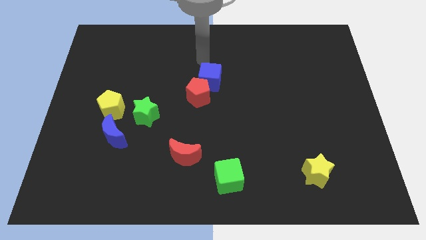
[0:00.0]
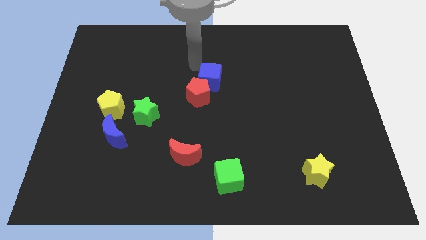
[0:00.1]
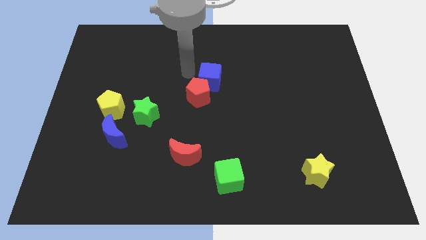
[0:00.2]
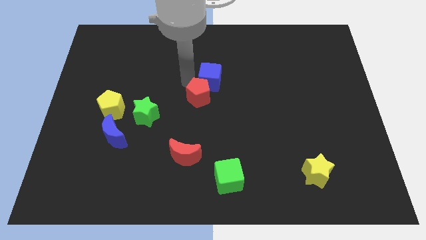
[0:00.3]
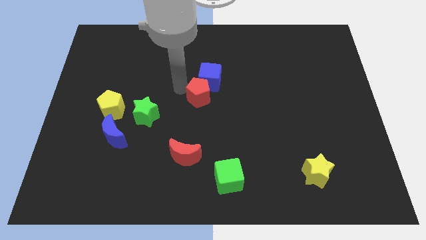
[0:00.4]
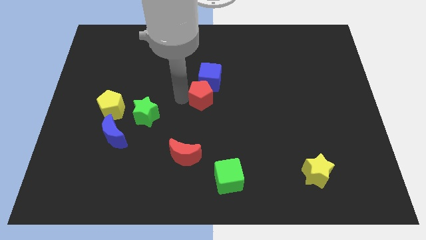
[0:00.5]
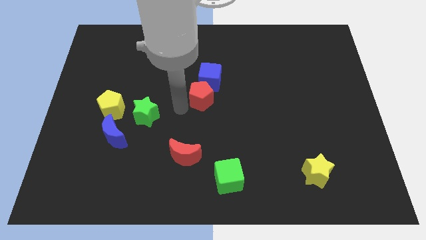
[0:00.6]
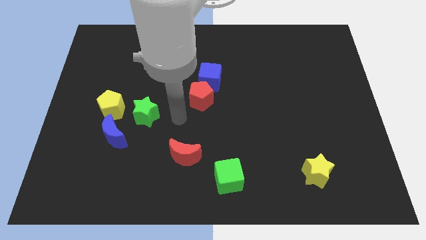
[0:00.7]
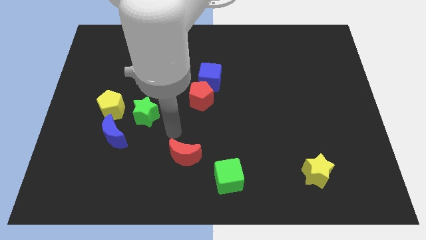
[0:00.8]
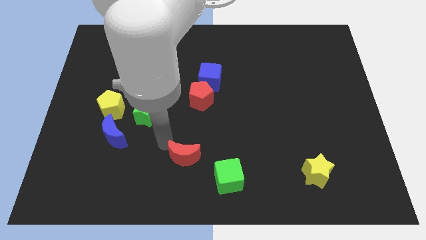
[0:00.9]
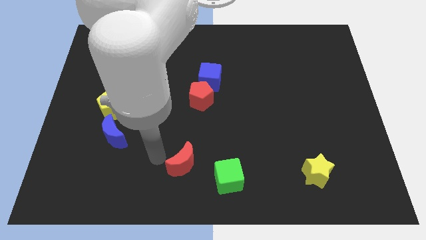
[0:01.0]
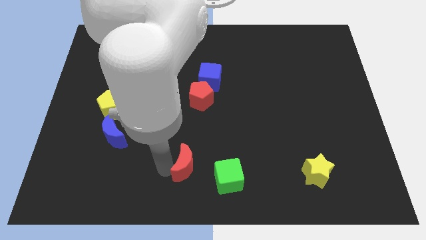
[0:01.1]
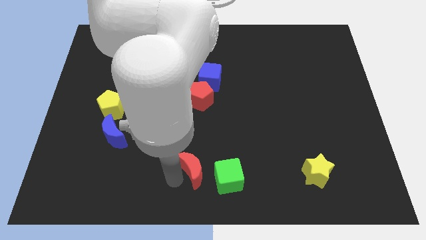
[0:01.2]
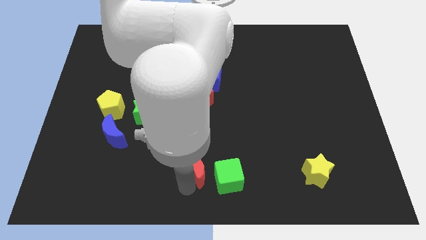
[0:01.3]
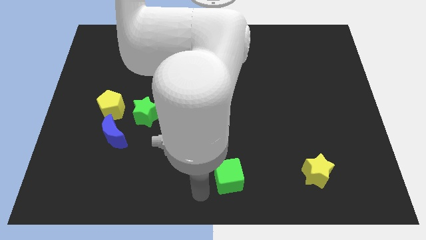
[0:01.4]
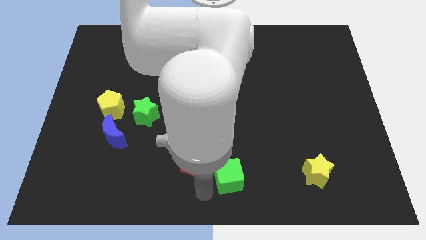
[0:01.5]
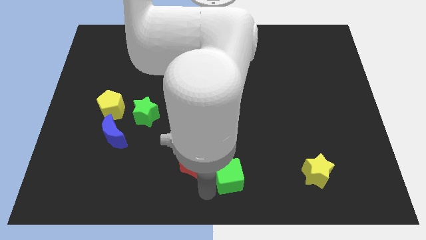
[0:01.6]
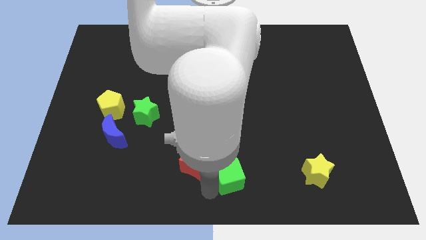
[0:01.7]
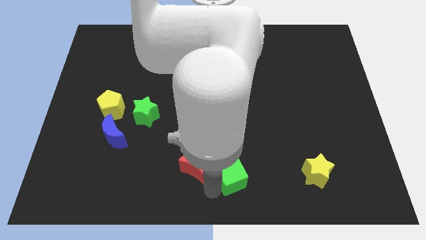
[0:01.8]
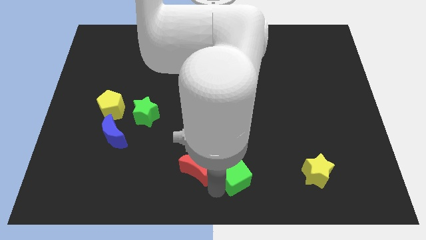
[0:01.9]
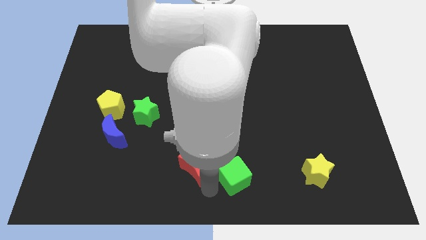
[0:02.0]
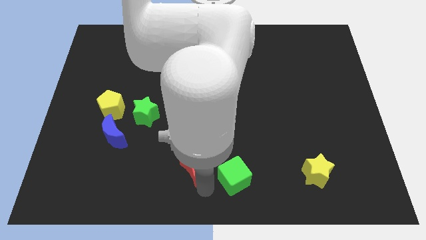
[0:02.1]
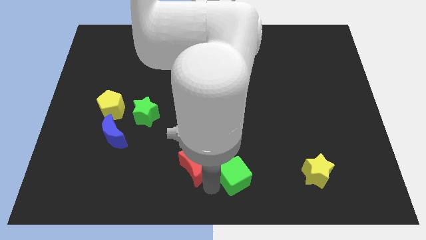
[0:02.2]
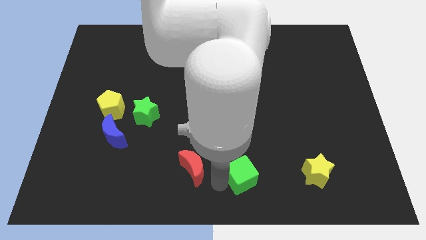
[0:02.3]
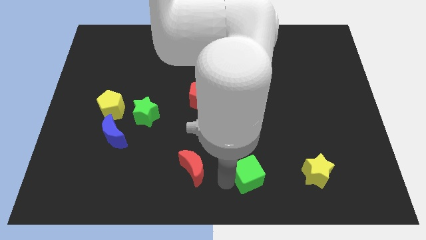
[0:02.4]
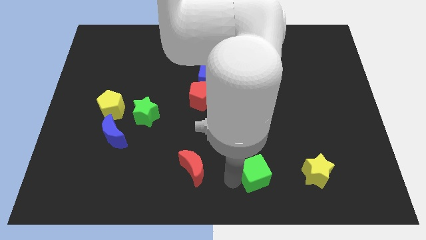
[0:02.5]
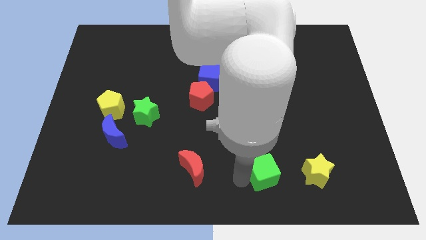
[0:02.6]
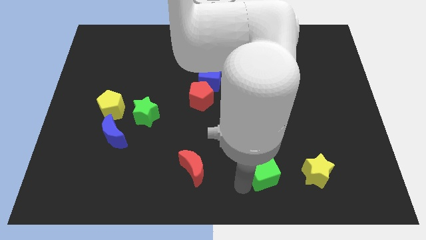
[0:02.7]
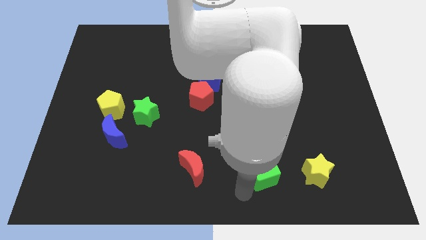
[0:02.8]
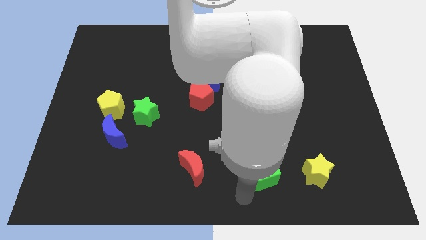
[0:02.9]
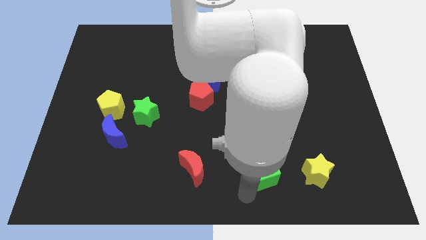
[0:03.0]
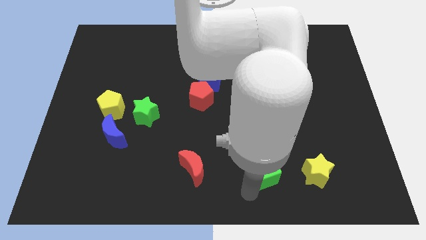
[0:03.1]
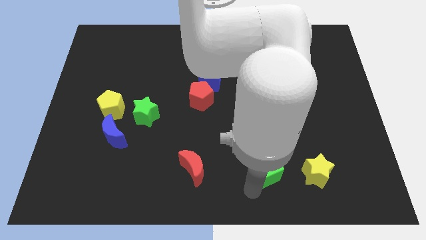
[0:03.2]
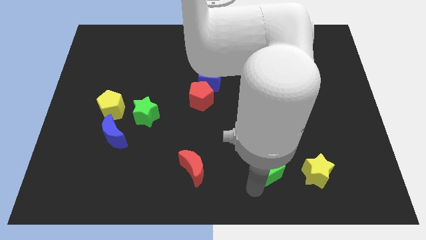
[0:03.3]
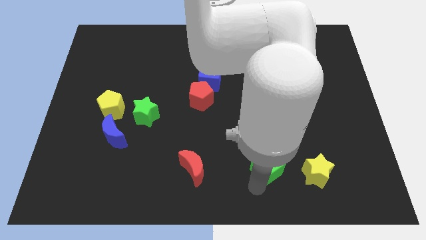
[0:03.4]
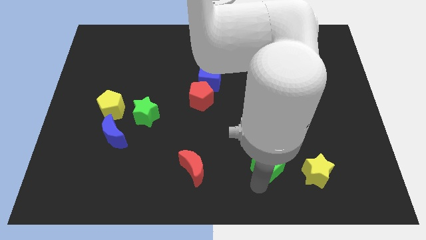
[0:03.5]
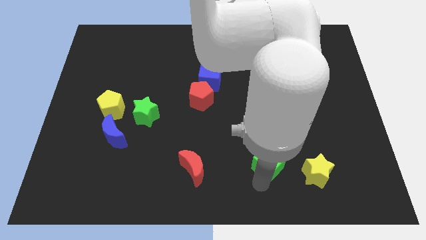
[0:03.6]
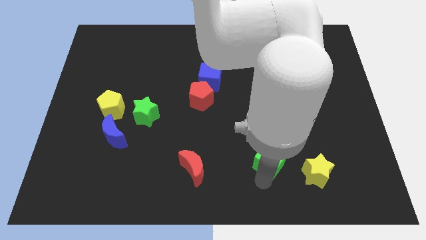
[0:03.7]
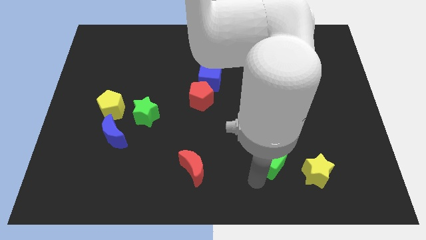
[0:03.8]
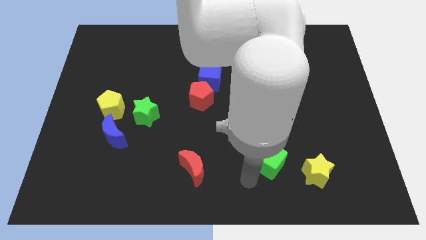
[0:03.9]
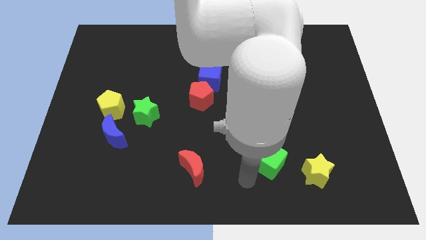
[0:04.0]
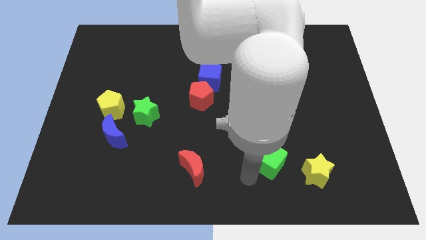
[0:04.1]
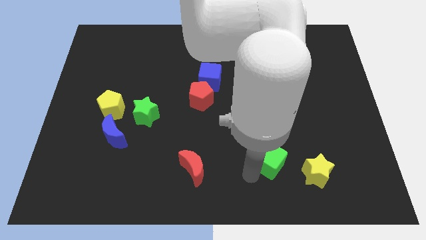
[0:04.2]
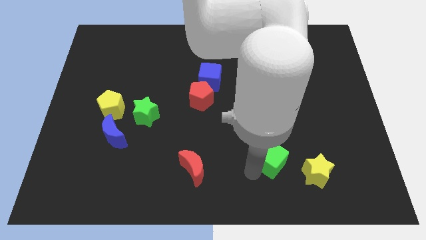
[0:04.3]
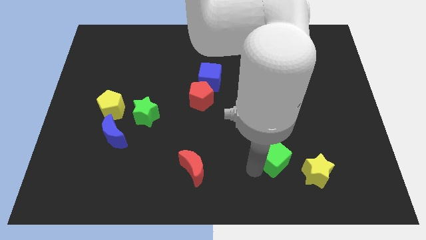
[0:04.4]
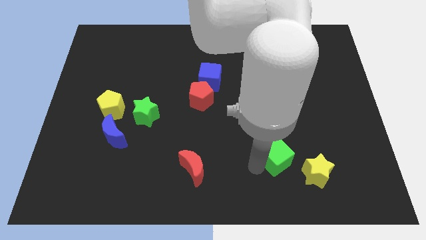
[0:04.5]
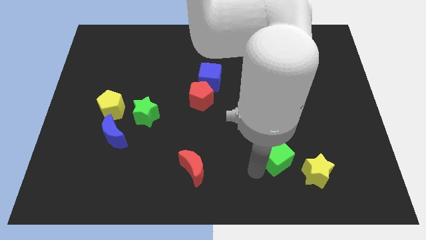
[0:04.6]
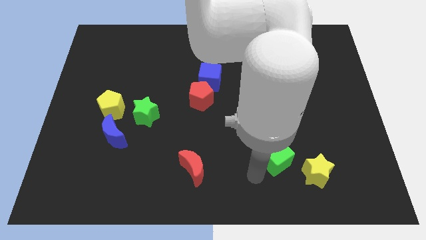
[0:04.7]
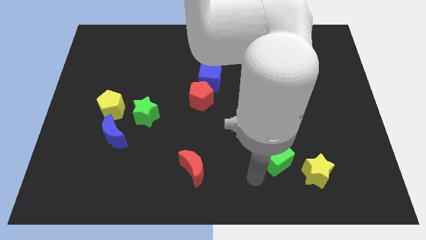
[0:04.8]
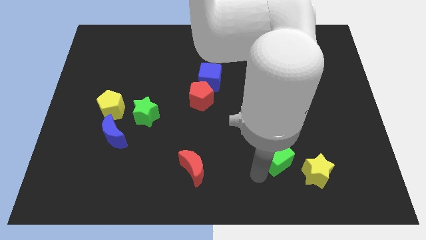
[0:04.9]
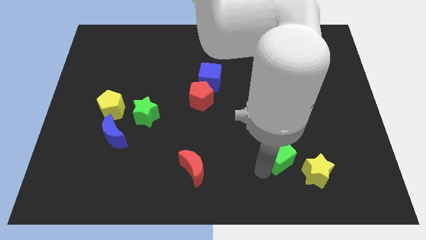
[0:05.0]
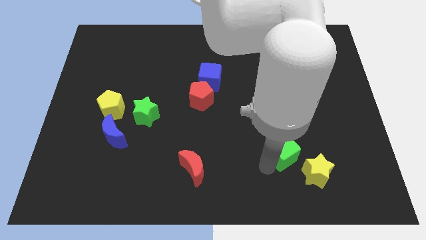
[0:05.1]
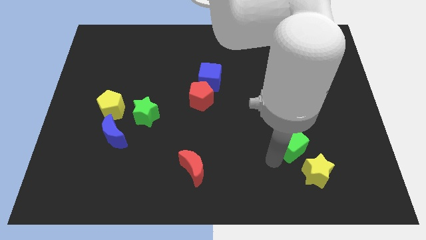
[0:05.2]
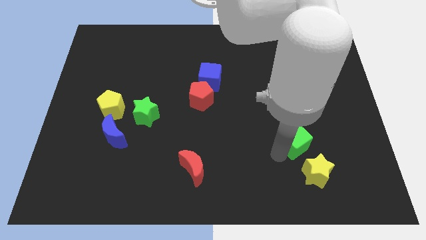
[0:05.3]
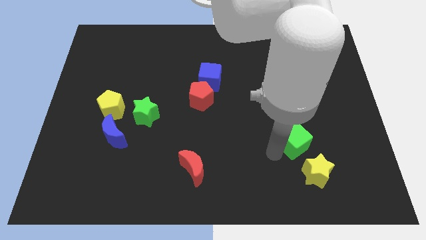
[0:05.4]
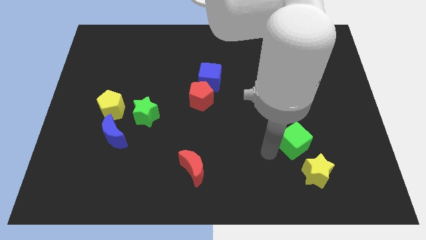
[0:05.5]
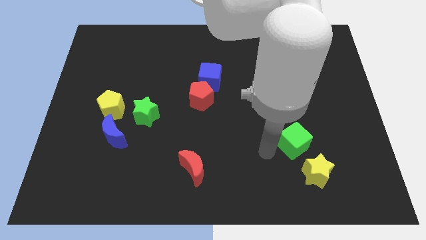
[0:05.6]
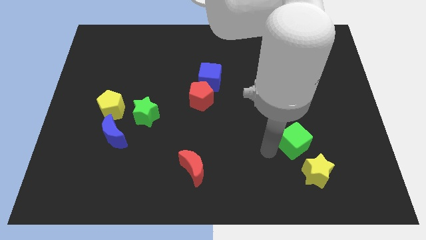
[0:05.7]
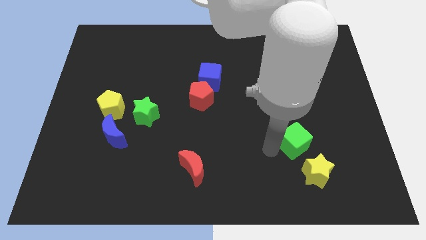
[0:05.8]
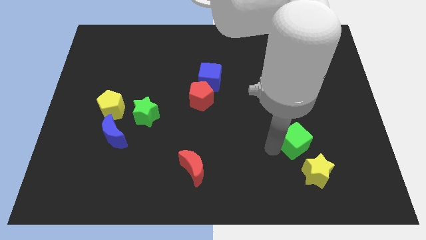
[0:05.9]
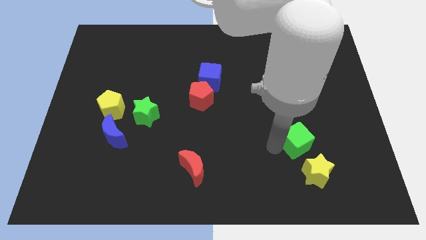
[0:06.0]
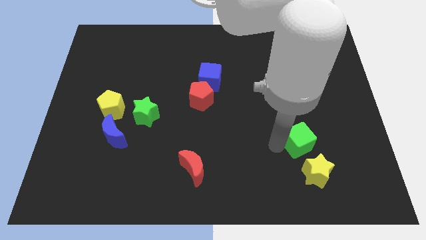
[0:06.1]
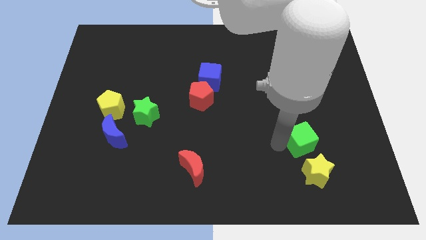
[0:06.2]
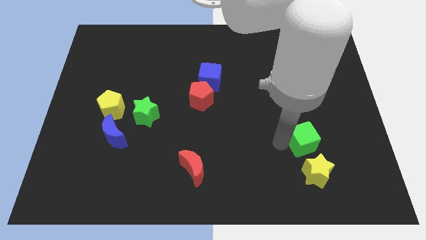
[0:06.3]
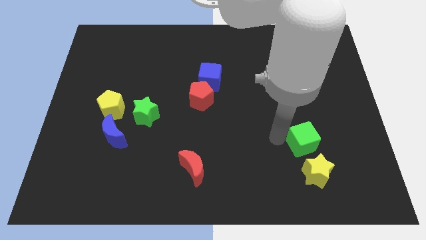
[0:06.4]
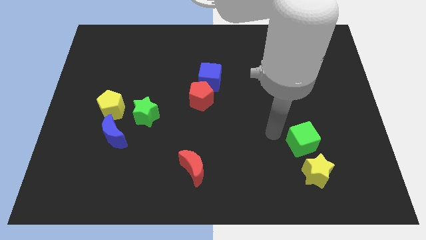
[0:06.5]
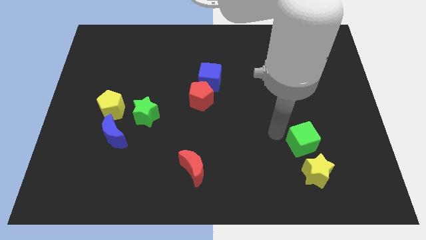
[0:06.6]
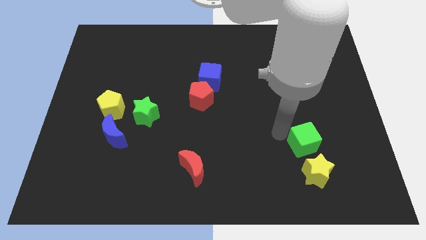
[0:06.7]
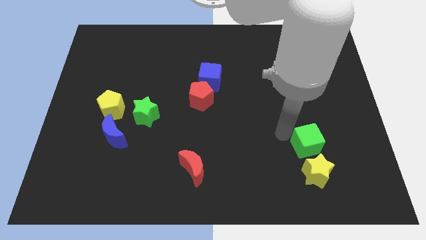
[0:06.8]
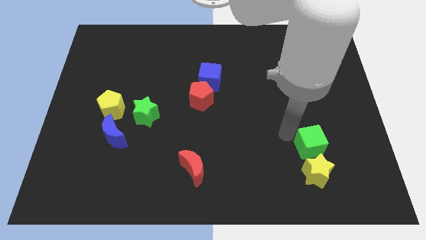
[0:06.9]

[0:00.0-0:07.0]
push the green cube to the top right of the yellow star

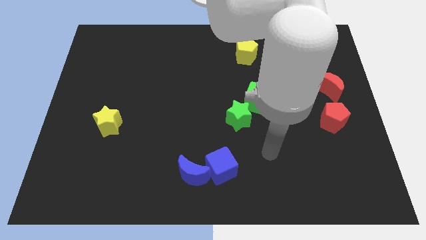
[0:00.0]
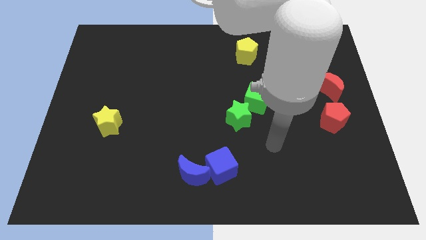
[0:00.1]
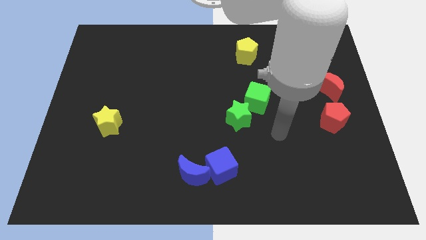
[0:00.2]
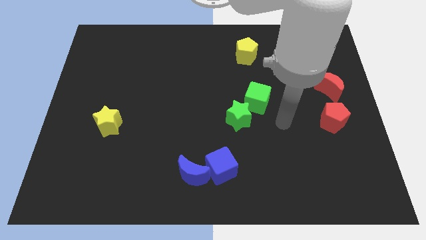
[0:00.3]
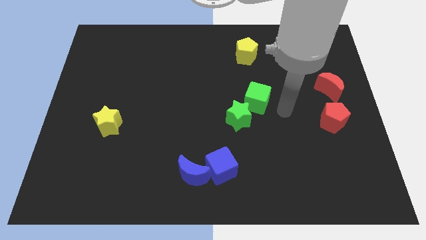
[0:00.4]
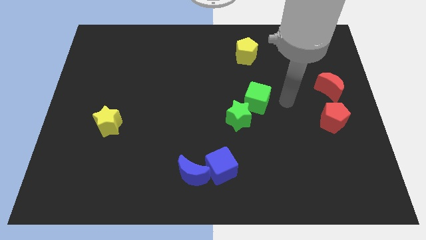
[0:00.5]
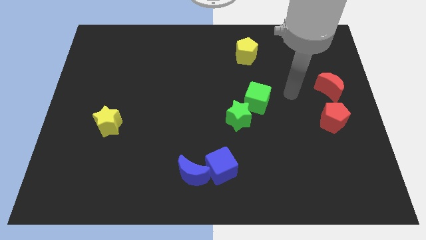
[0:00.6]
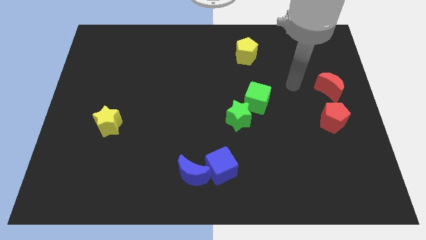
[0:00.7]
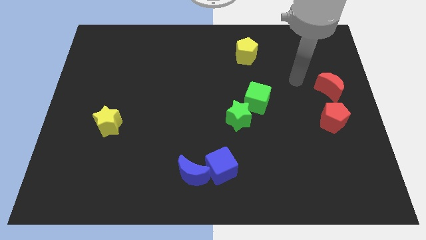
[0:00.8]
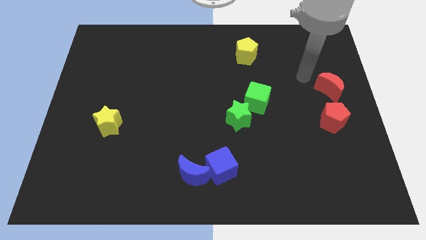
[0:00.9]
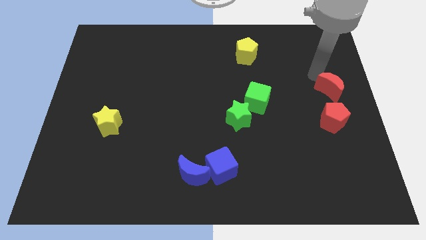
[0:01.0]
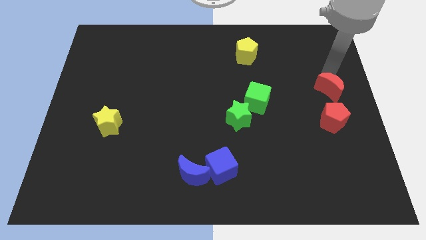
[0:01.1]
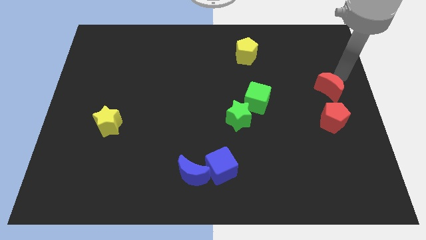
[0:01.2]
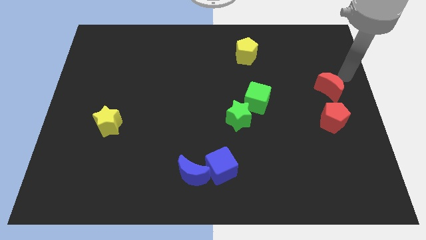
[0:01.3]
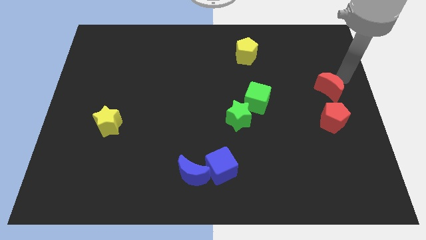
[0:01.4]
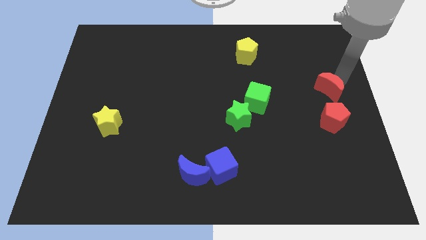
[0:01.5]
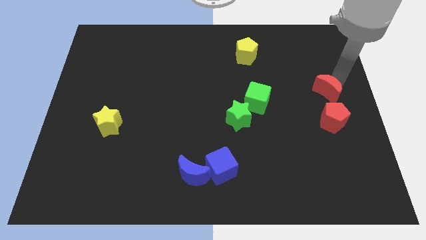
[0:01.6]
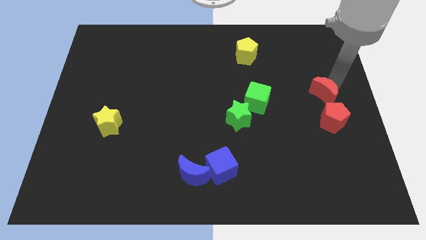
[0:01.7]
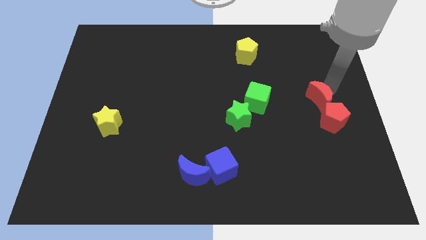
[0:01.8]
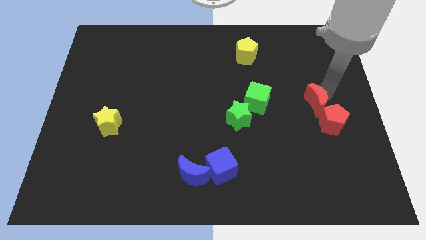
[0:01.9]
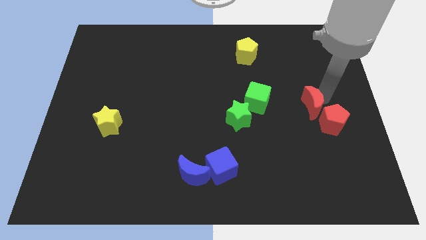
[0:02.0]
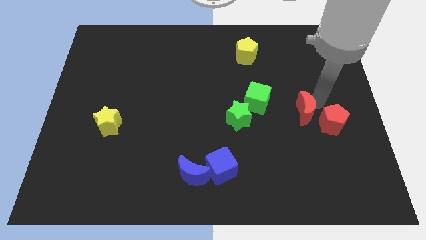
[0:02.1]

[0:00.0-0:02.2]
push the red moon right of the green star
